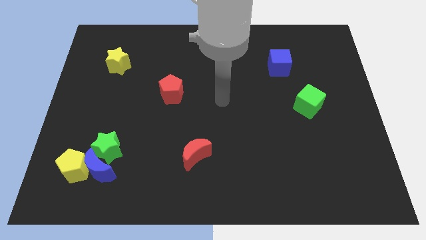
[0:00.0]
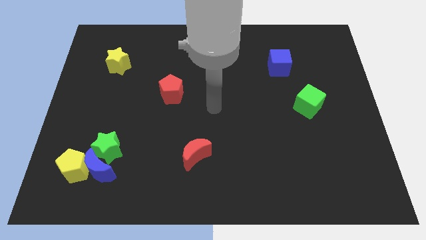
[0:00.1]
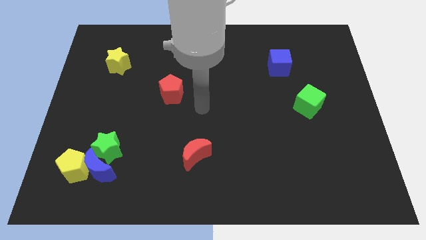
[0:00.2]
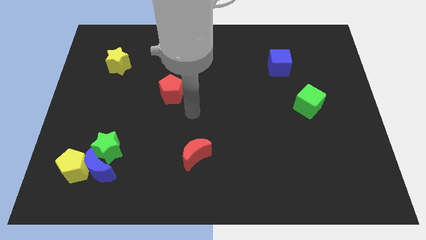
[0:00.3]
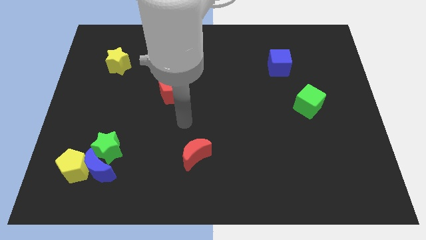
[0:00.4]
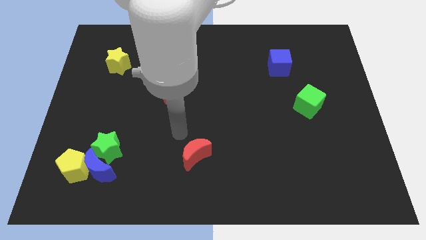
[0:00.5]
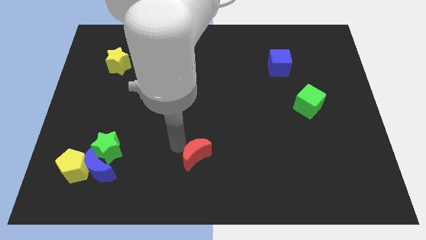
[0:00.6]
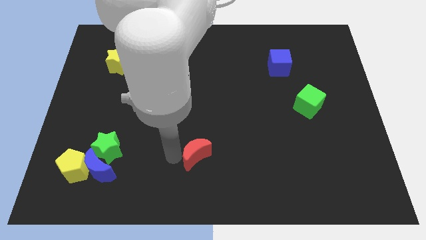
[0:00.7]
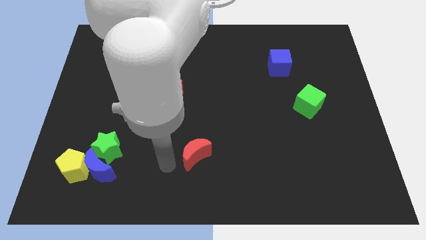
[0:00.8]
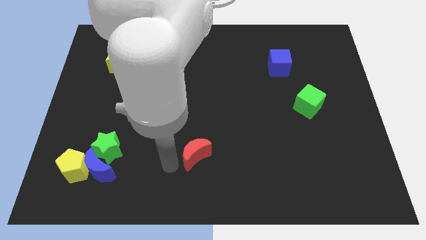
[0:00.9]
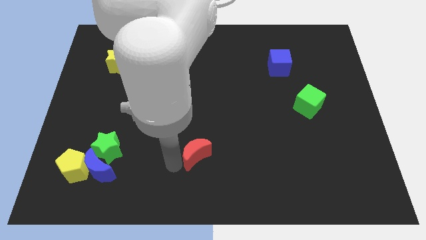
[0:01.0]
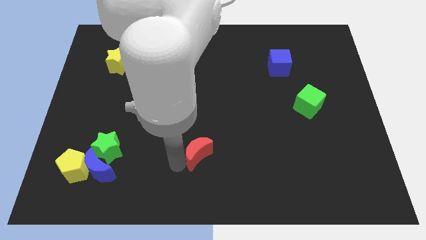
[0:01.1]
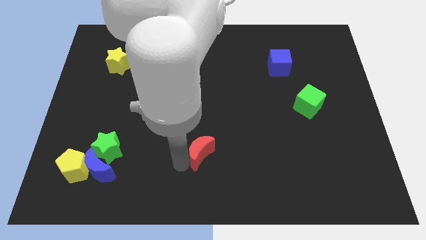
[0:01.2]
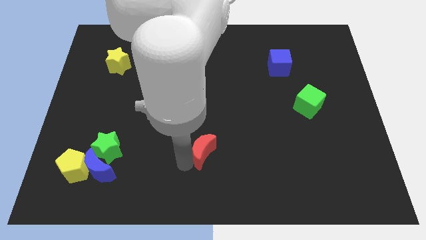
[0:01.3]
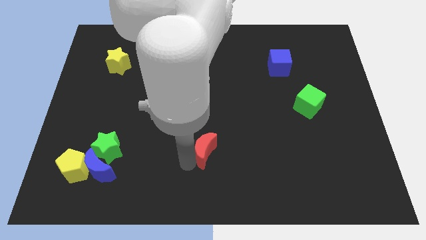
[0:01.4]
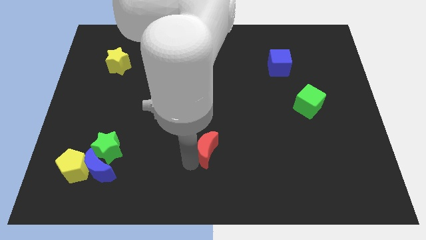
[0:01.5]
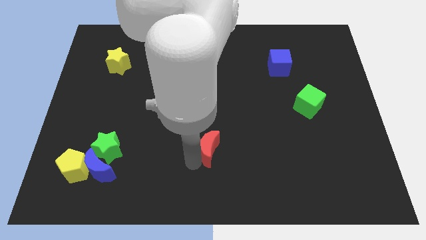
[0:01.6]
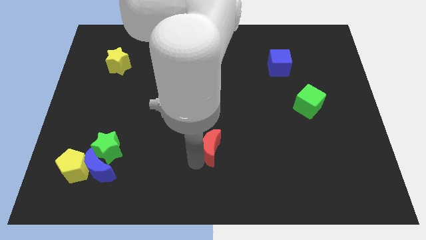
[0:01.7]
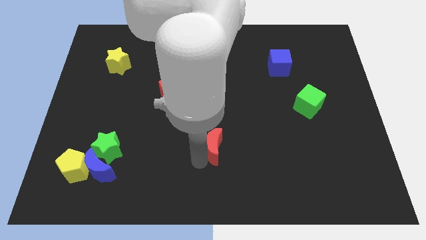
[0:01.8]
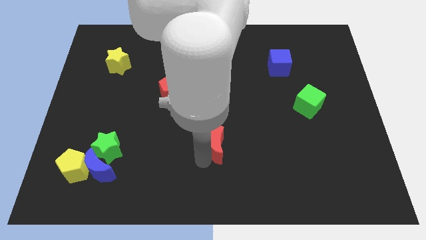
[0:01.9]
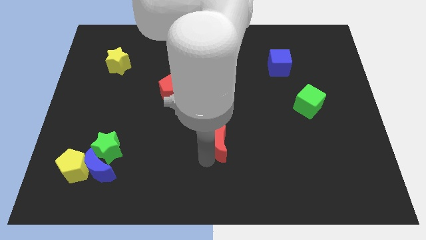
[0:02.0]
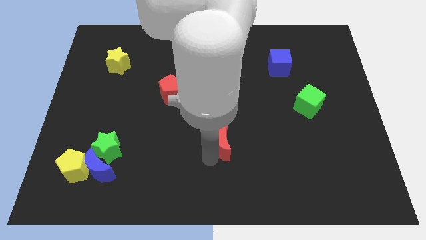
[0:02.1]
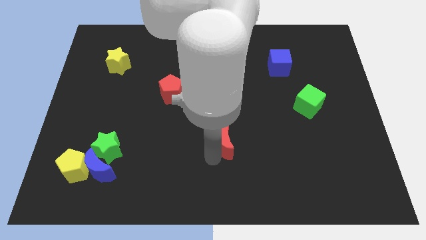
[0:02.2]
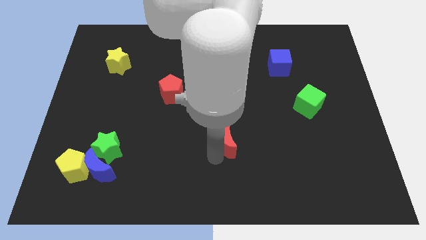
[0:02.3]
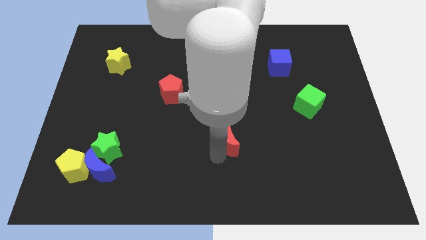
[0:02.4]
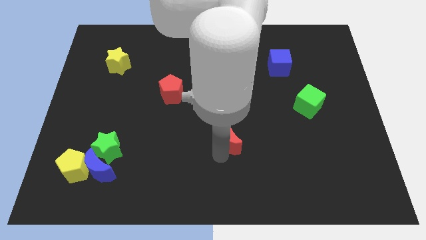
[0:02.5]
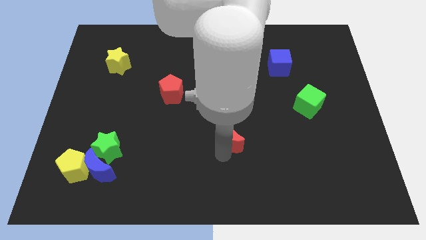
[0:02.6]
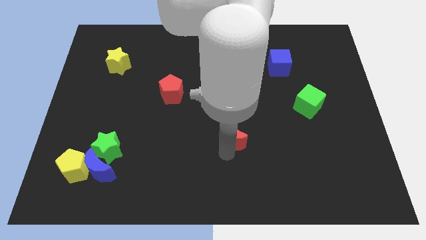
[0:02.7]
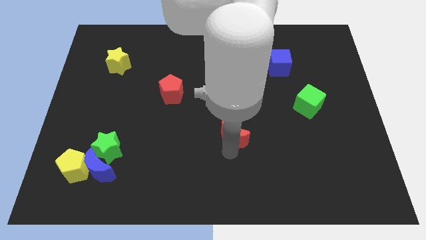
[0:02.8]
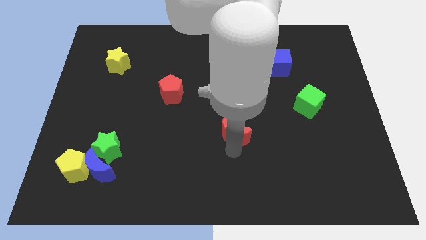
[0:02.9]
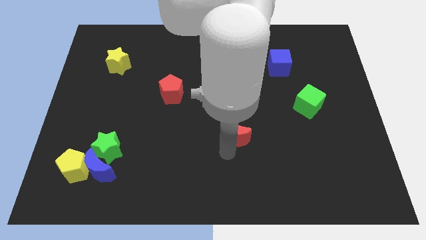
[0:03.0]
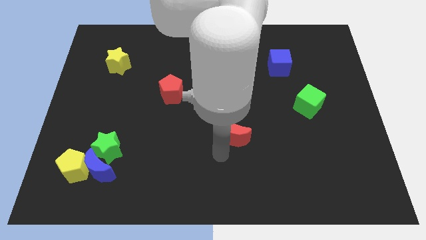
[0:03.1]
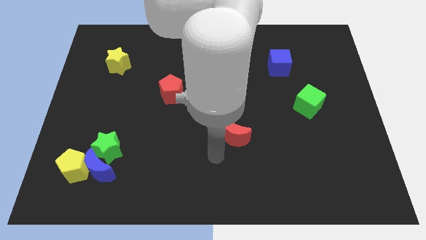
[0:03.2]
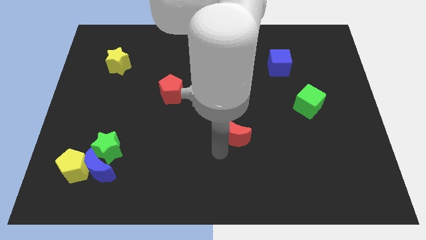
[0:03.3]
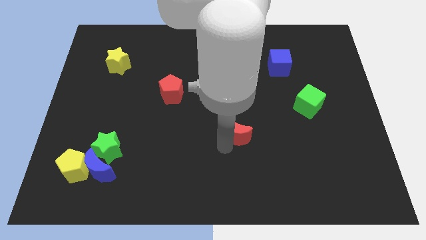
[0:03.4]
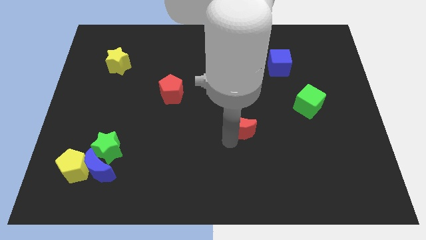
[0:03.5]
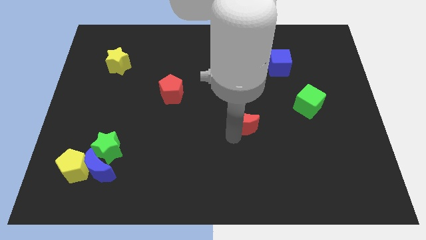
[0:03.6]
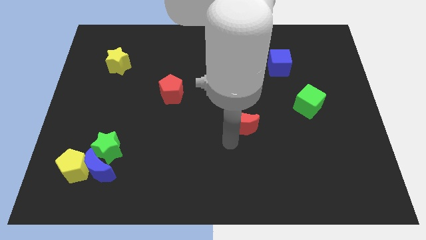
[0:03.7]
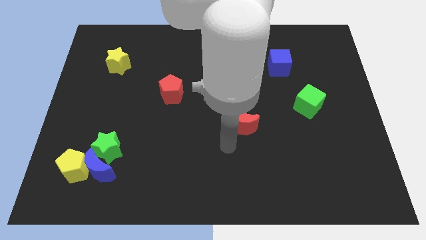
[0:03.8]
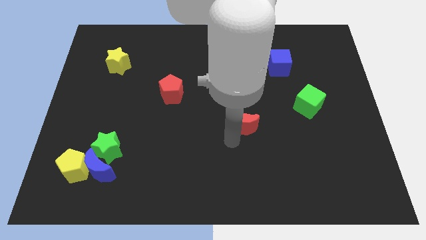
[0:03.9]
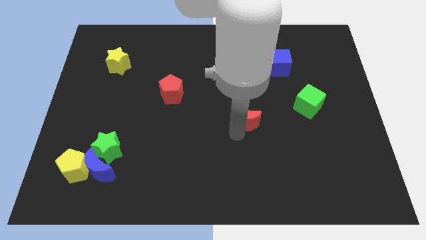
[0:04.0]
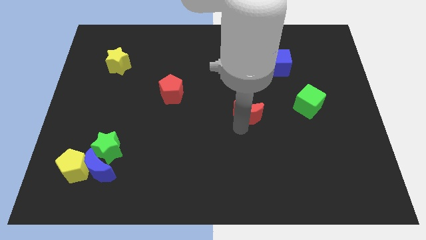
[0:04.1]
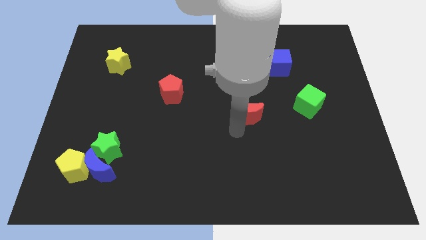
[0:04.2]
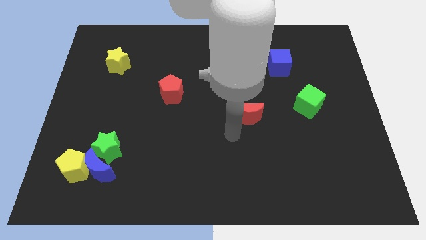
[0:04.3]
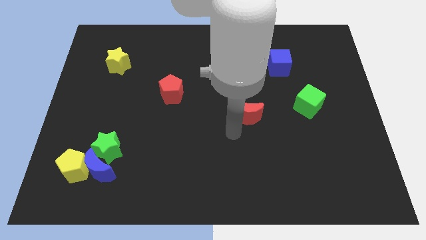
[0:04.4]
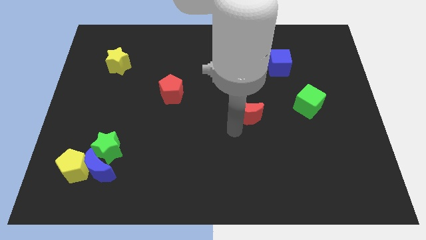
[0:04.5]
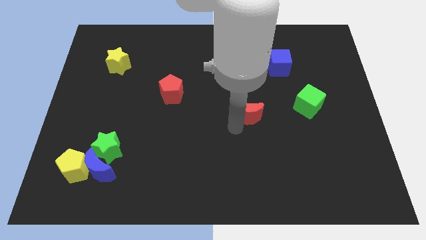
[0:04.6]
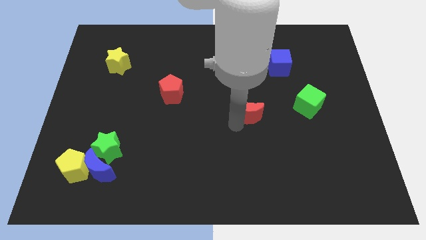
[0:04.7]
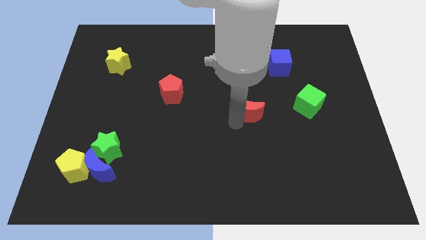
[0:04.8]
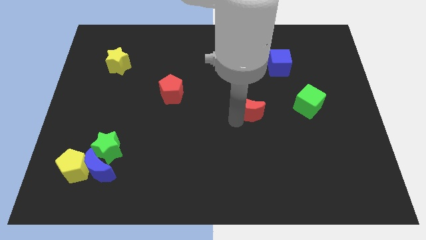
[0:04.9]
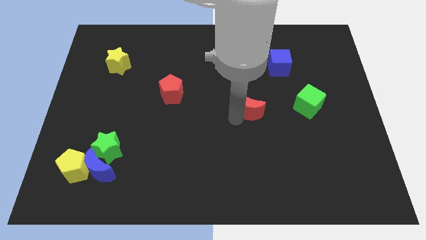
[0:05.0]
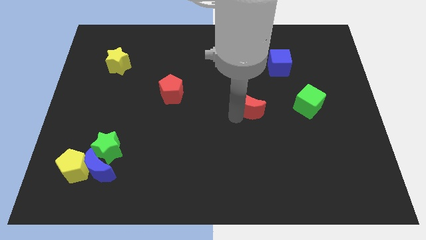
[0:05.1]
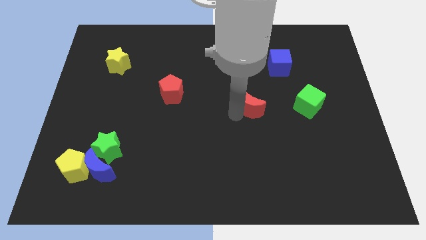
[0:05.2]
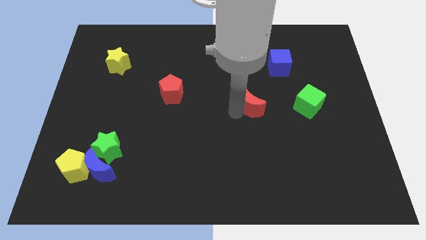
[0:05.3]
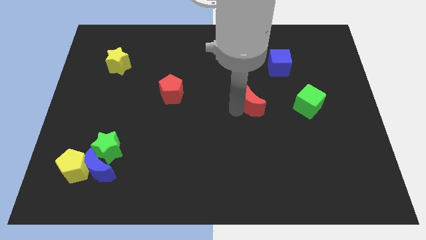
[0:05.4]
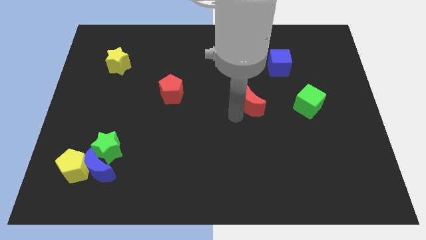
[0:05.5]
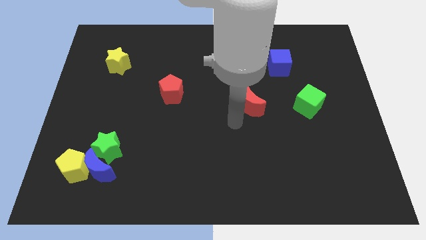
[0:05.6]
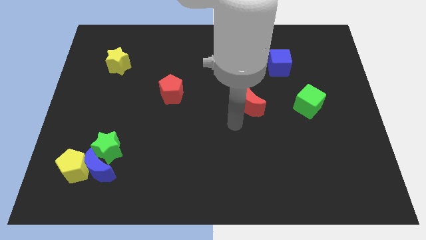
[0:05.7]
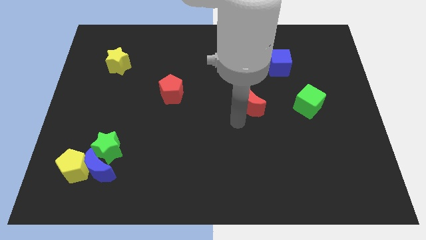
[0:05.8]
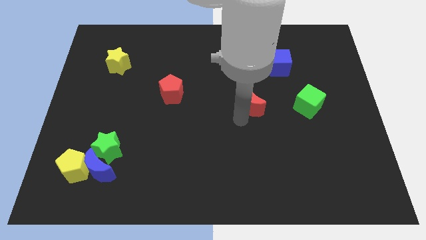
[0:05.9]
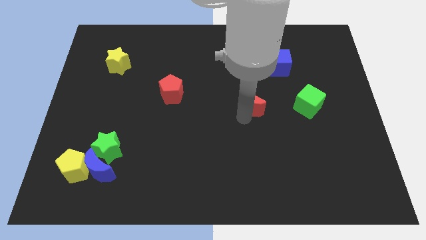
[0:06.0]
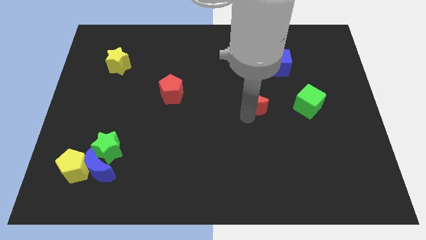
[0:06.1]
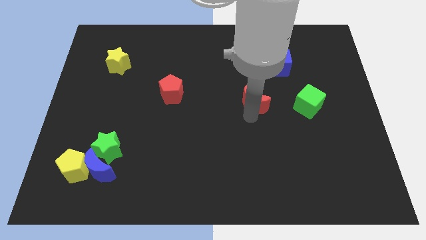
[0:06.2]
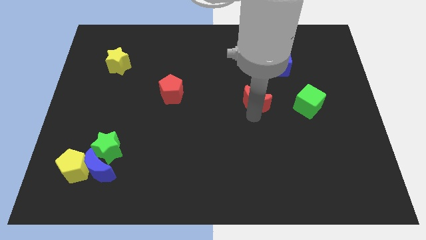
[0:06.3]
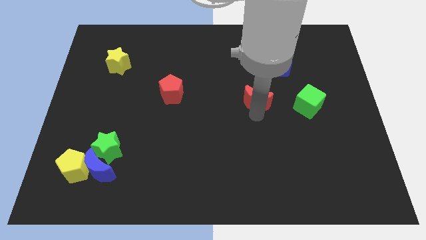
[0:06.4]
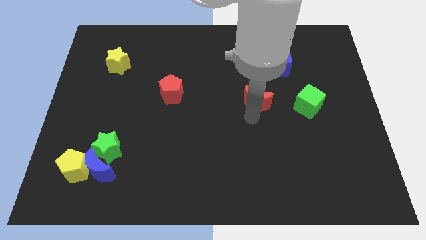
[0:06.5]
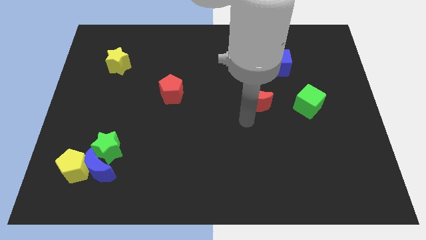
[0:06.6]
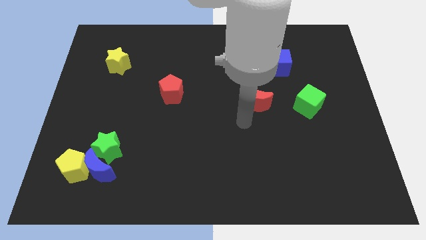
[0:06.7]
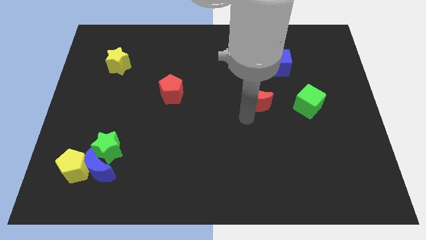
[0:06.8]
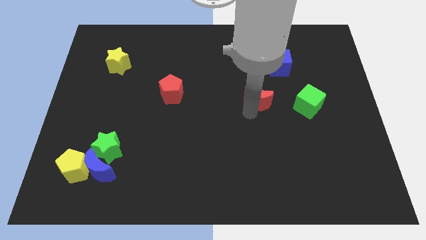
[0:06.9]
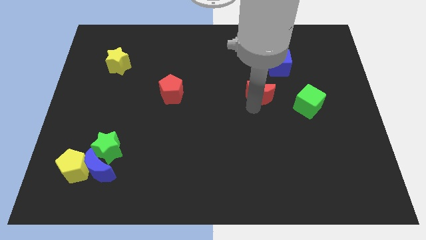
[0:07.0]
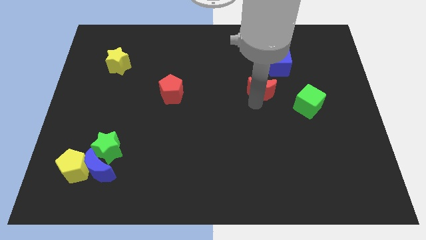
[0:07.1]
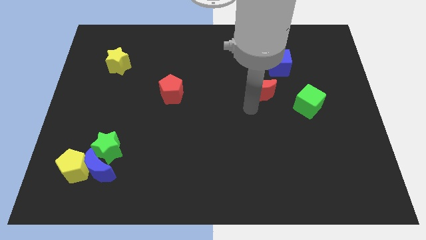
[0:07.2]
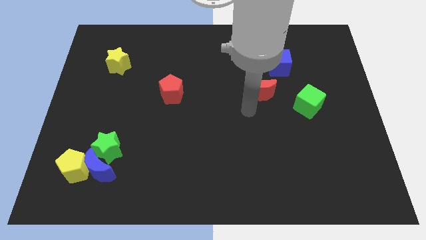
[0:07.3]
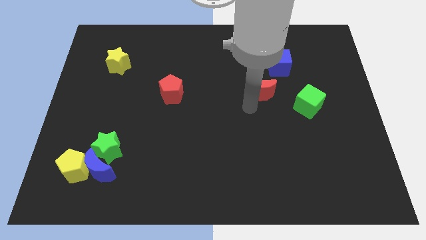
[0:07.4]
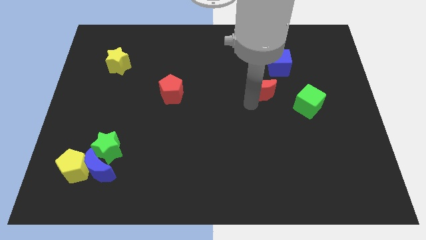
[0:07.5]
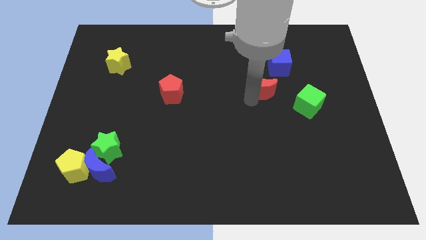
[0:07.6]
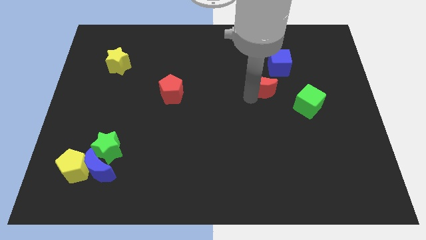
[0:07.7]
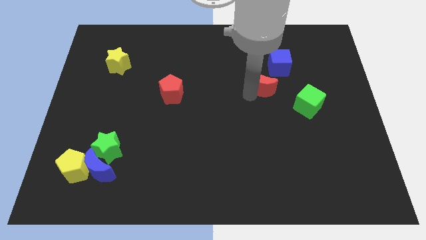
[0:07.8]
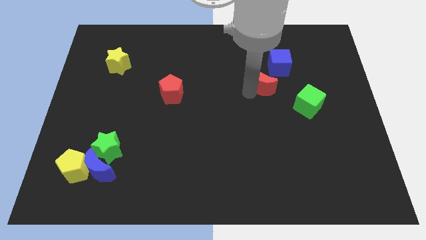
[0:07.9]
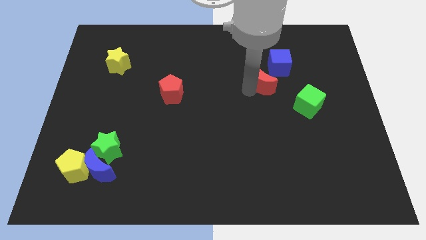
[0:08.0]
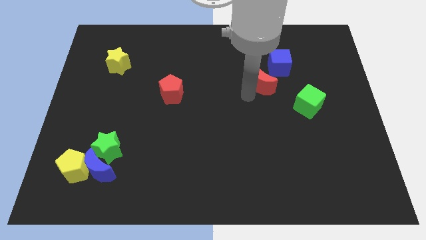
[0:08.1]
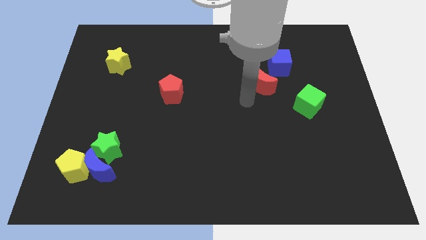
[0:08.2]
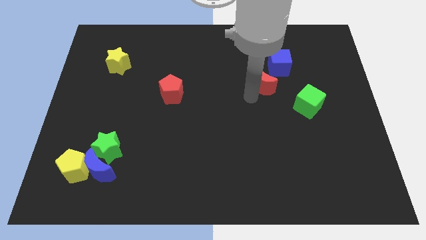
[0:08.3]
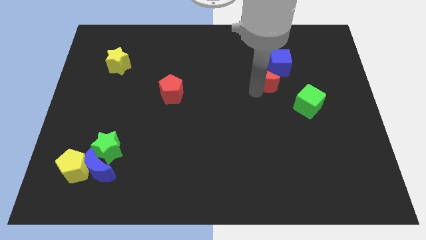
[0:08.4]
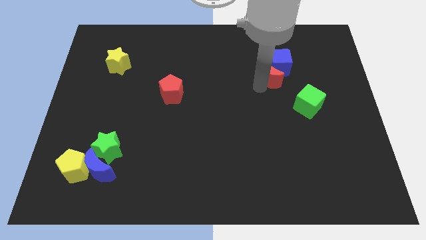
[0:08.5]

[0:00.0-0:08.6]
move the red moon towards the blue cube
